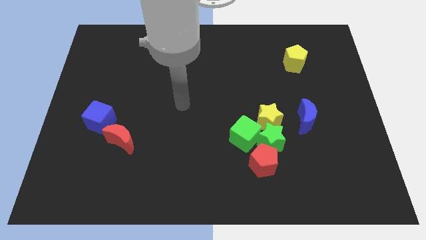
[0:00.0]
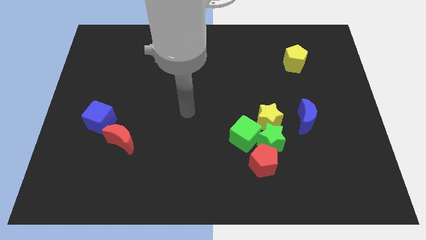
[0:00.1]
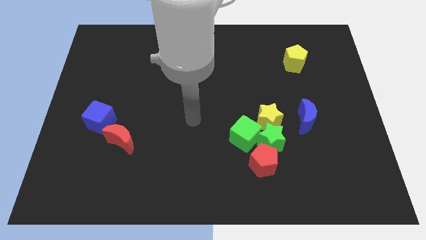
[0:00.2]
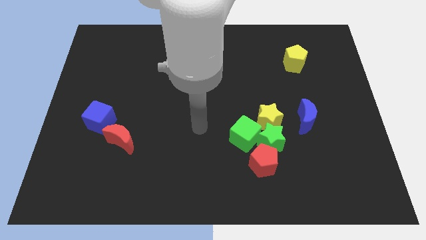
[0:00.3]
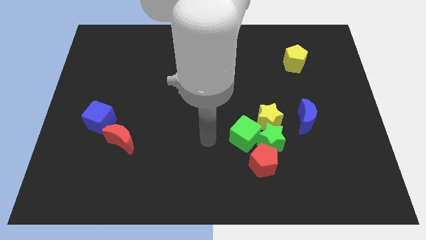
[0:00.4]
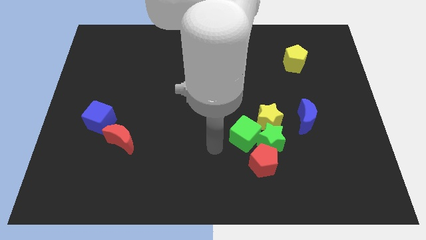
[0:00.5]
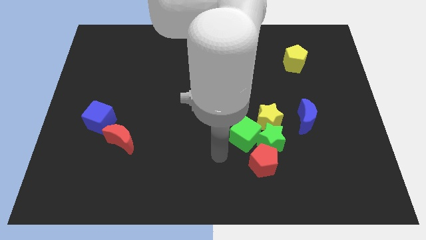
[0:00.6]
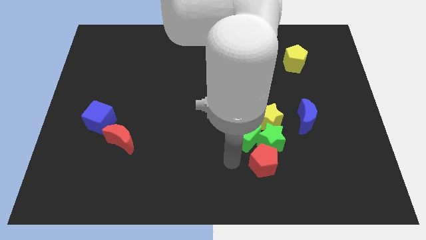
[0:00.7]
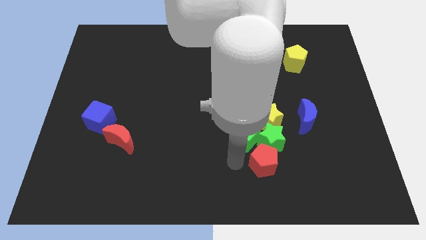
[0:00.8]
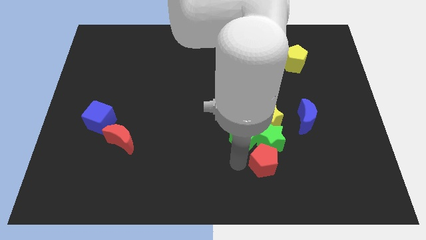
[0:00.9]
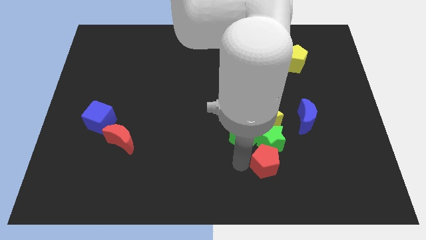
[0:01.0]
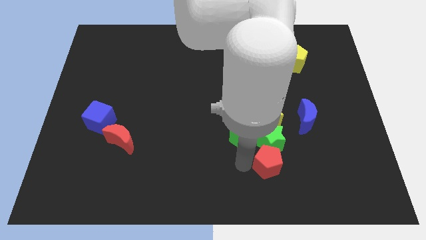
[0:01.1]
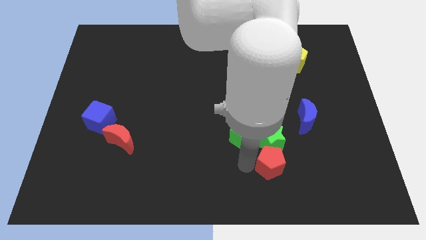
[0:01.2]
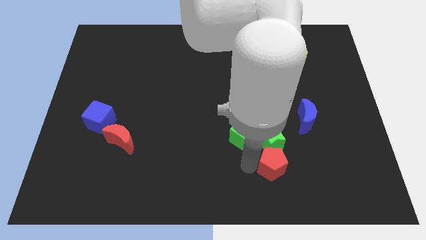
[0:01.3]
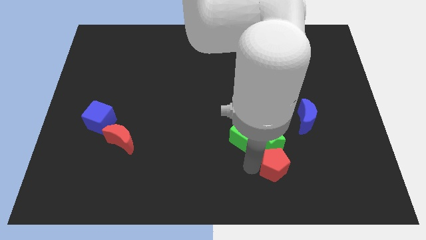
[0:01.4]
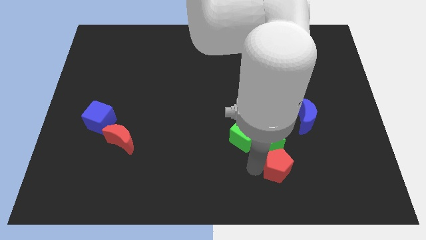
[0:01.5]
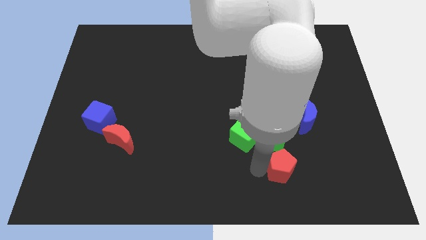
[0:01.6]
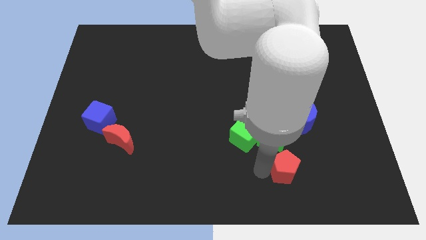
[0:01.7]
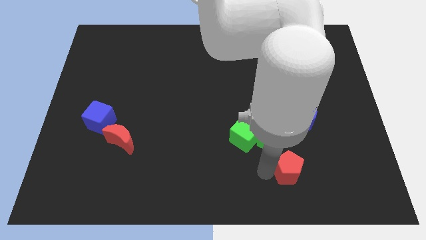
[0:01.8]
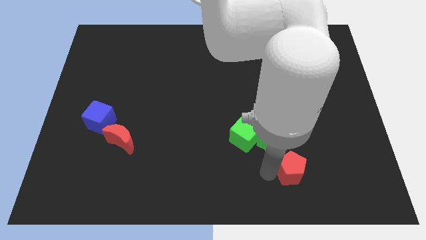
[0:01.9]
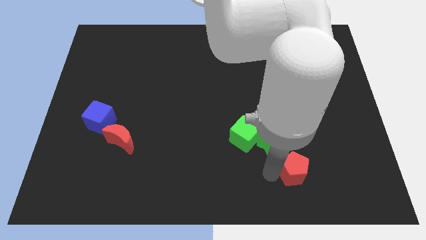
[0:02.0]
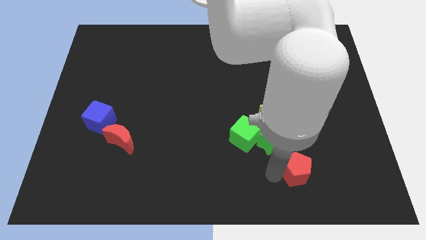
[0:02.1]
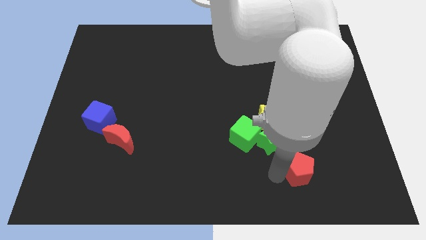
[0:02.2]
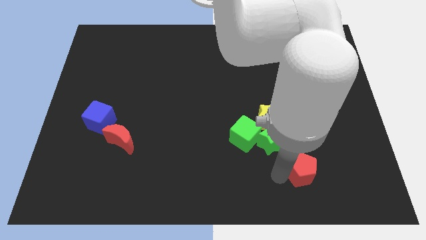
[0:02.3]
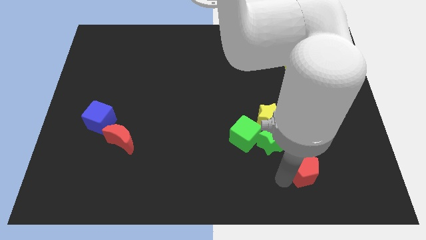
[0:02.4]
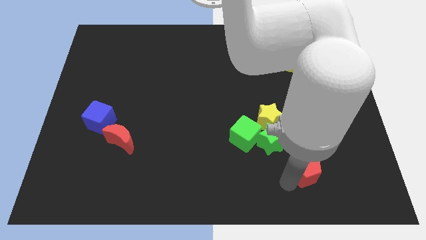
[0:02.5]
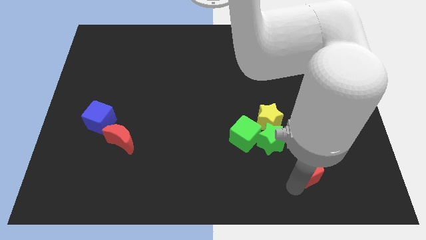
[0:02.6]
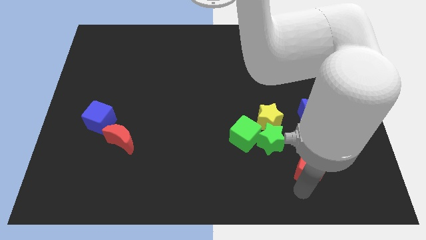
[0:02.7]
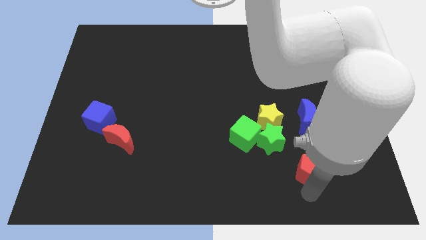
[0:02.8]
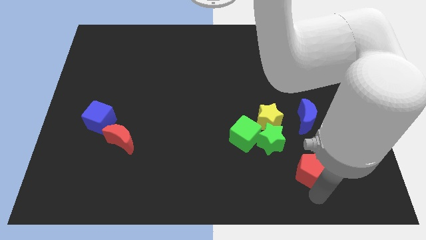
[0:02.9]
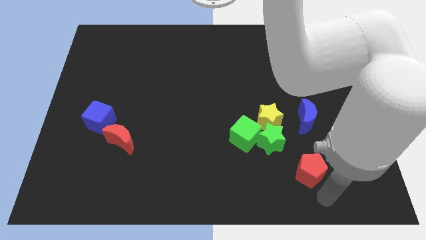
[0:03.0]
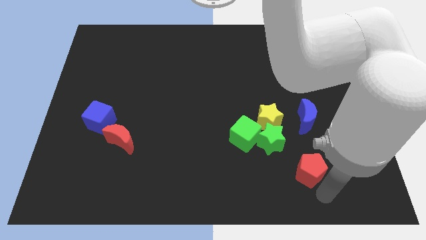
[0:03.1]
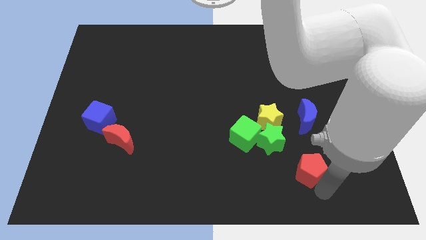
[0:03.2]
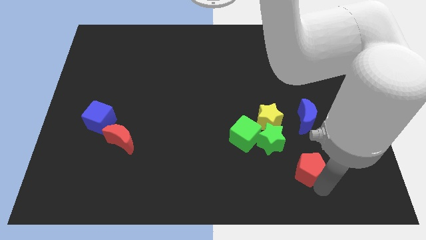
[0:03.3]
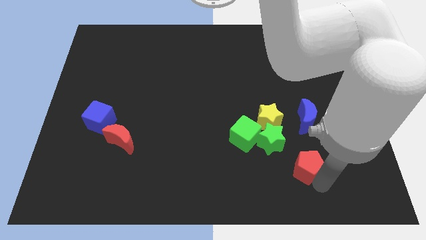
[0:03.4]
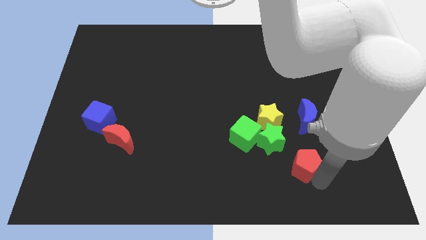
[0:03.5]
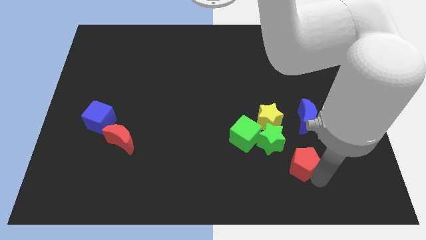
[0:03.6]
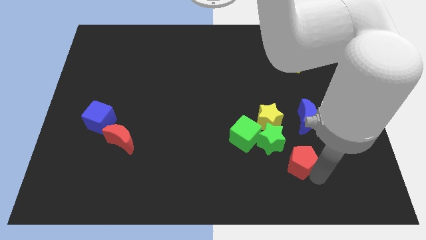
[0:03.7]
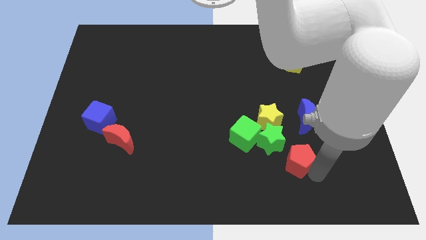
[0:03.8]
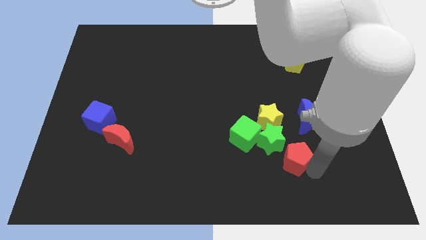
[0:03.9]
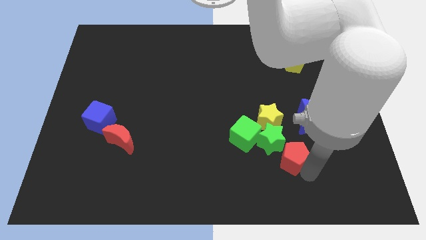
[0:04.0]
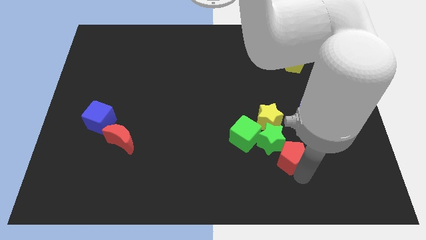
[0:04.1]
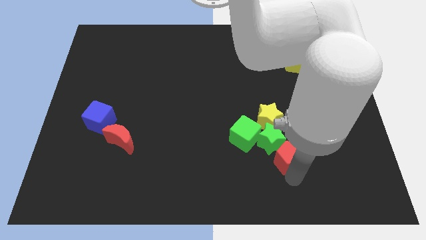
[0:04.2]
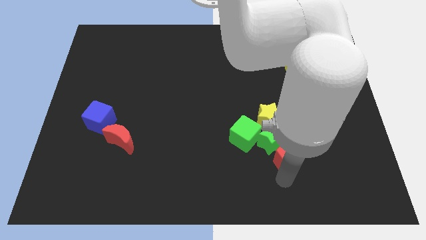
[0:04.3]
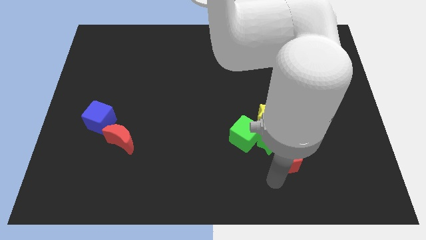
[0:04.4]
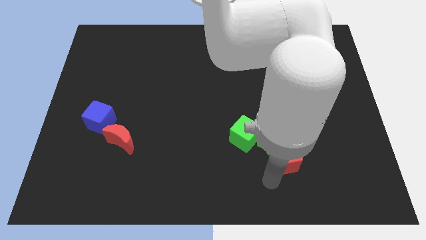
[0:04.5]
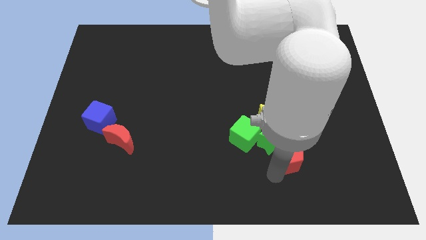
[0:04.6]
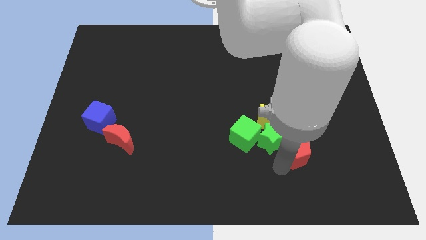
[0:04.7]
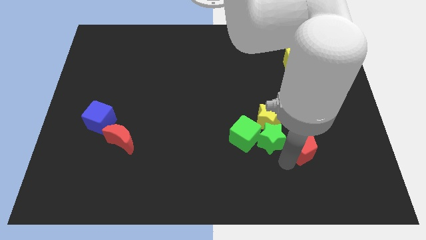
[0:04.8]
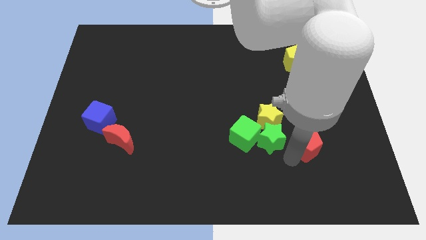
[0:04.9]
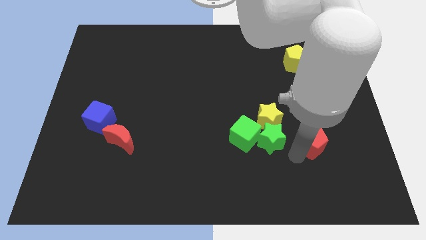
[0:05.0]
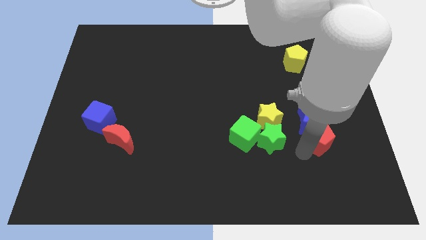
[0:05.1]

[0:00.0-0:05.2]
push the red pentagon to the blue moon

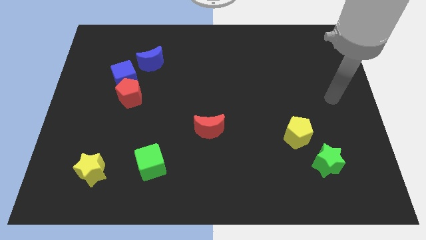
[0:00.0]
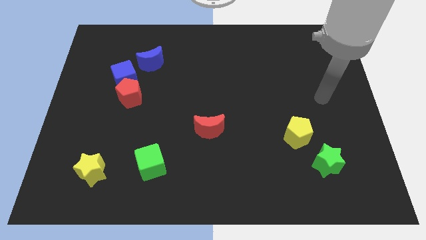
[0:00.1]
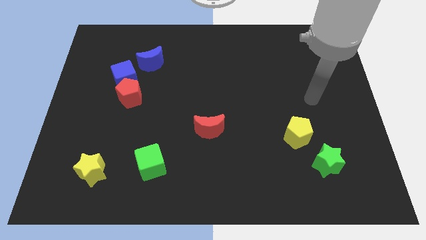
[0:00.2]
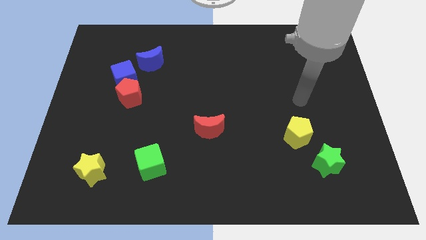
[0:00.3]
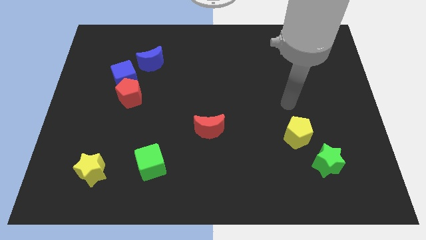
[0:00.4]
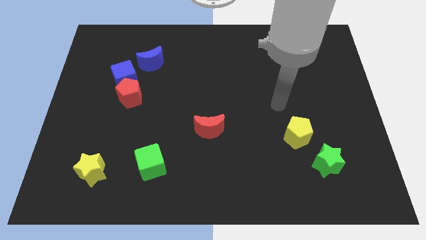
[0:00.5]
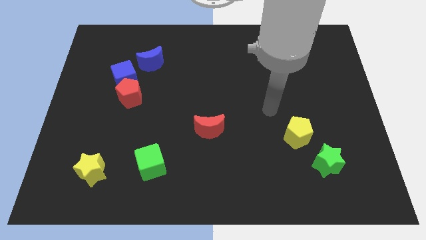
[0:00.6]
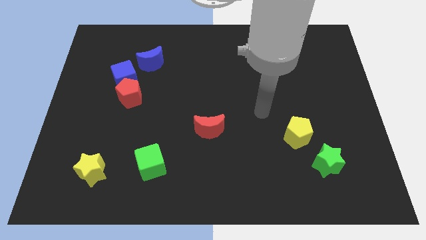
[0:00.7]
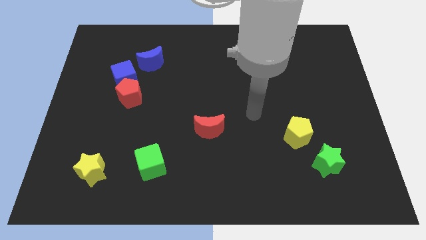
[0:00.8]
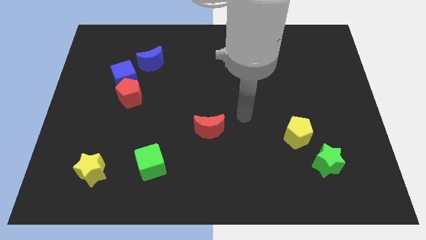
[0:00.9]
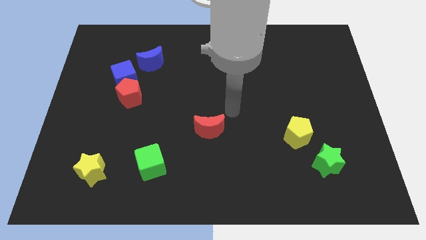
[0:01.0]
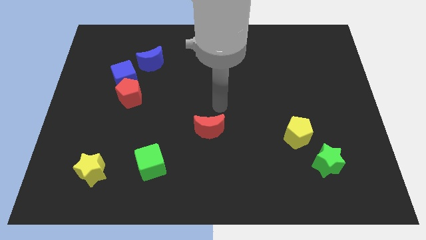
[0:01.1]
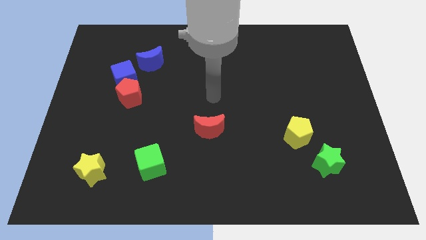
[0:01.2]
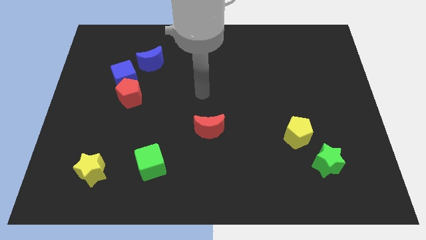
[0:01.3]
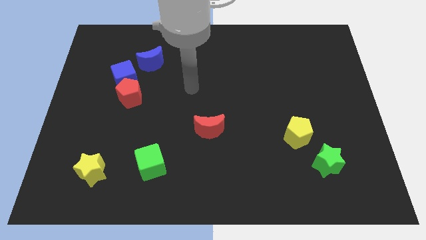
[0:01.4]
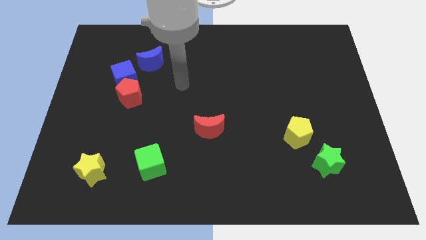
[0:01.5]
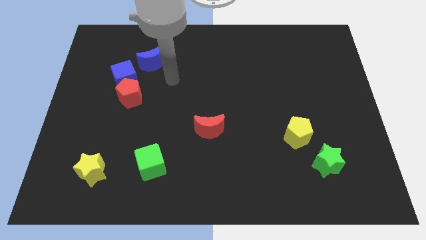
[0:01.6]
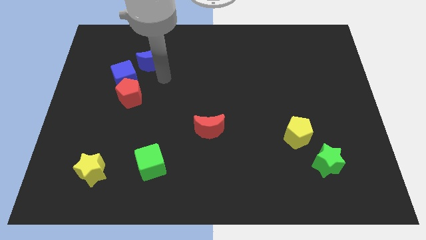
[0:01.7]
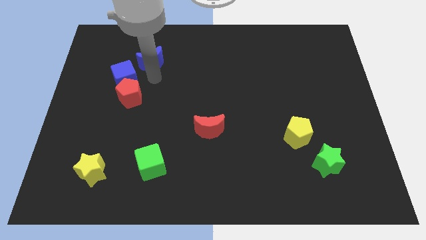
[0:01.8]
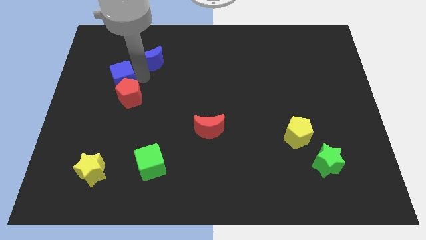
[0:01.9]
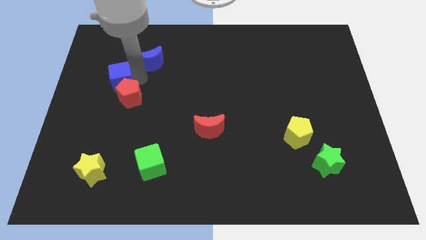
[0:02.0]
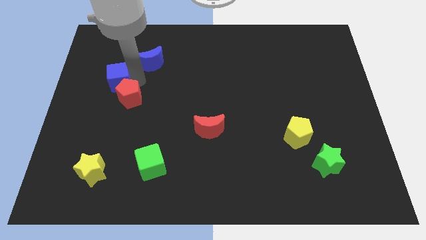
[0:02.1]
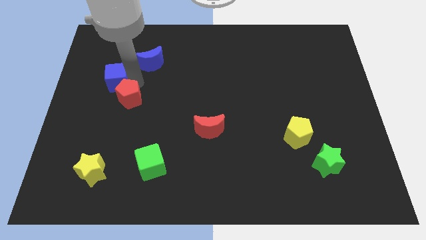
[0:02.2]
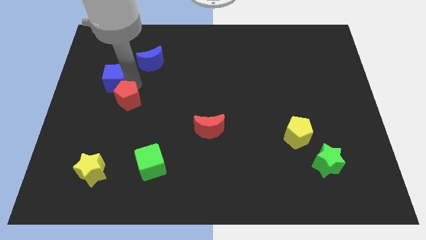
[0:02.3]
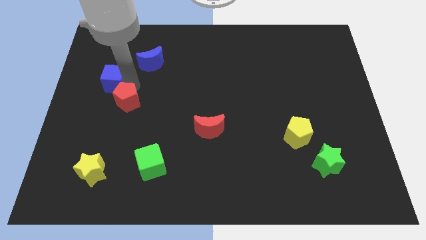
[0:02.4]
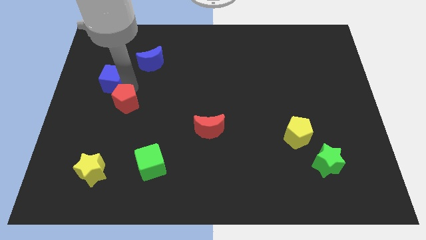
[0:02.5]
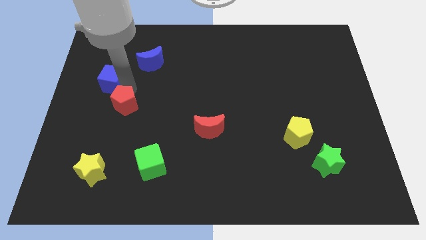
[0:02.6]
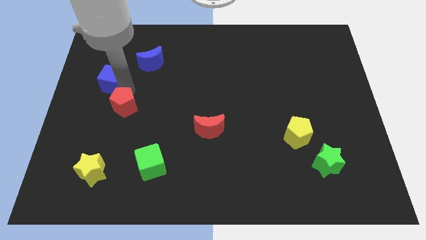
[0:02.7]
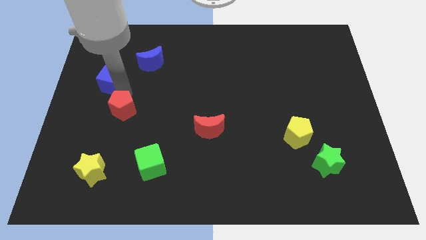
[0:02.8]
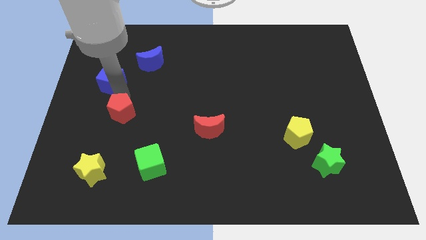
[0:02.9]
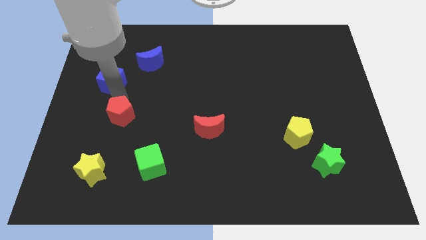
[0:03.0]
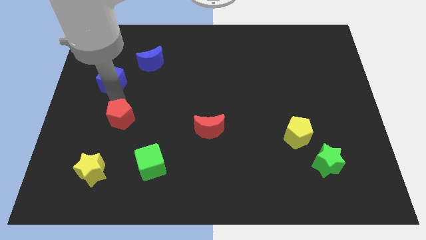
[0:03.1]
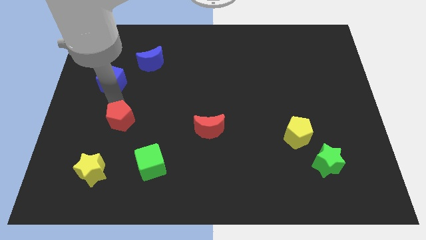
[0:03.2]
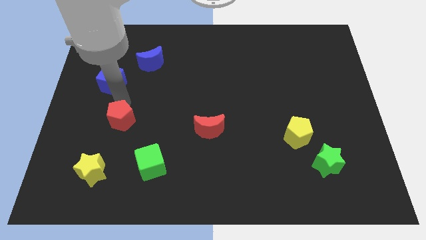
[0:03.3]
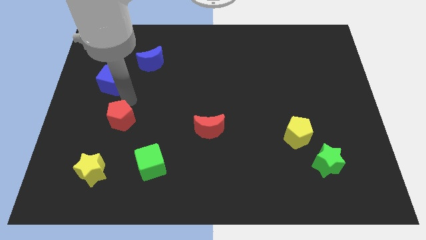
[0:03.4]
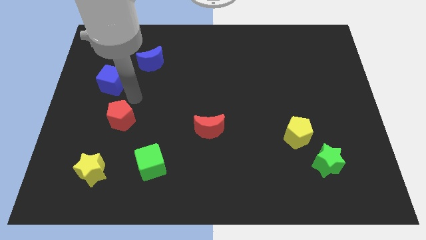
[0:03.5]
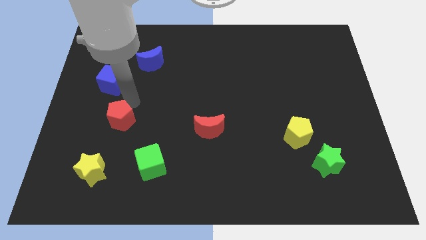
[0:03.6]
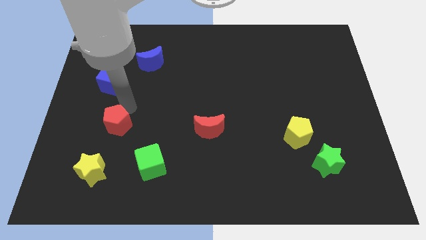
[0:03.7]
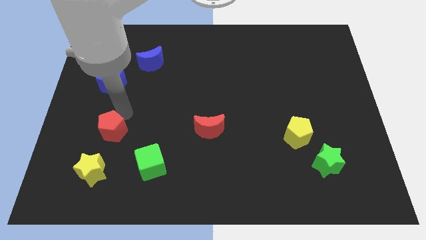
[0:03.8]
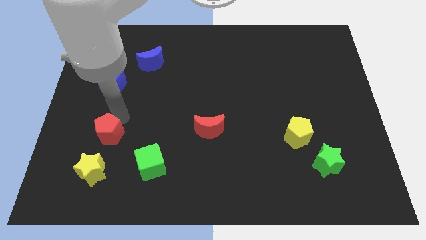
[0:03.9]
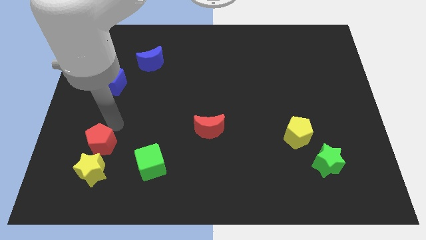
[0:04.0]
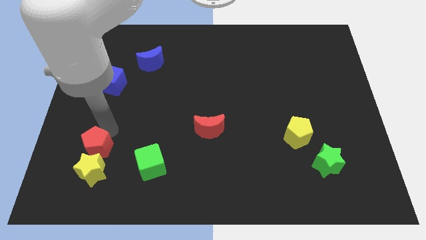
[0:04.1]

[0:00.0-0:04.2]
push the red pentagon next to the yellow star
